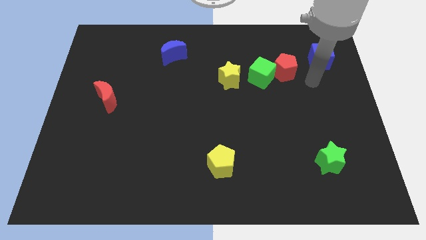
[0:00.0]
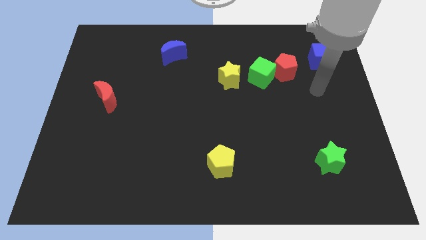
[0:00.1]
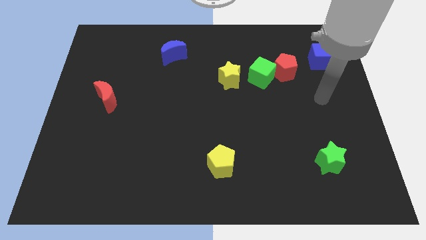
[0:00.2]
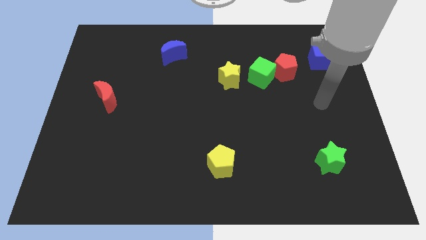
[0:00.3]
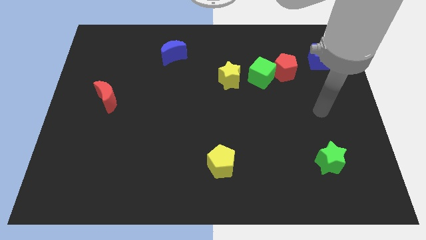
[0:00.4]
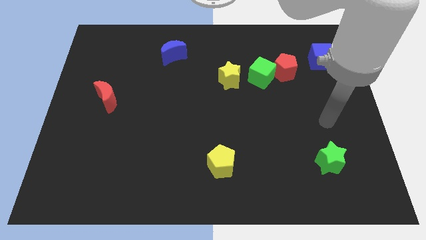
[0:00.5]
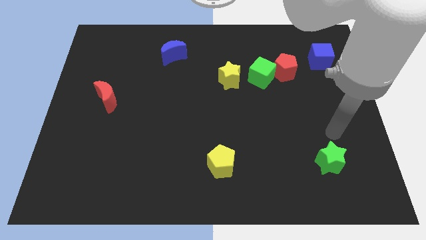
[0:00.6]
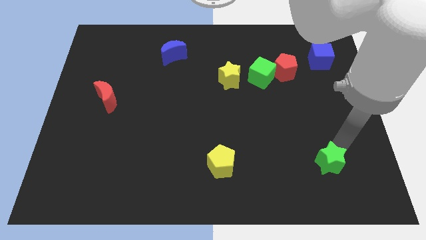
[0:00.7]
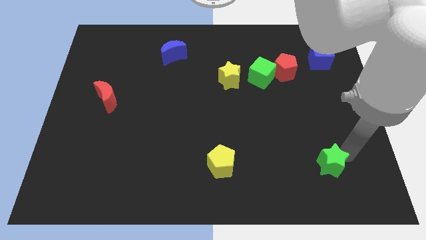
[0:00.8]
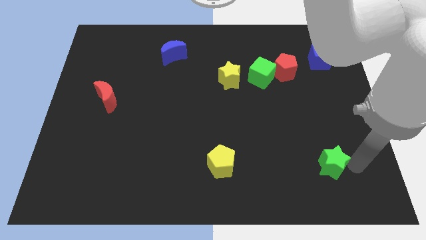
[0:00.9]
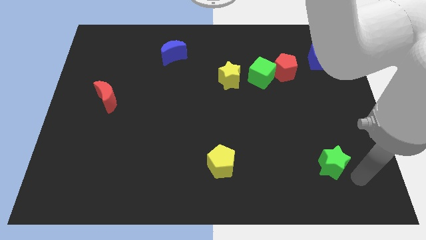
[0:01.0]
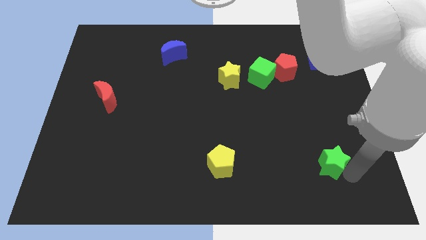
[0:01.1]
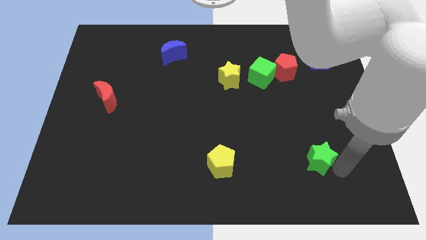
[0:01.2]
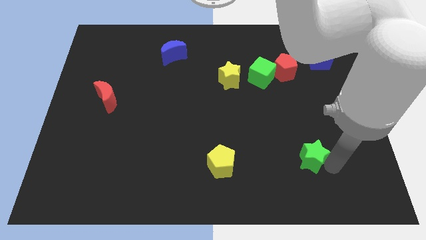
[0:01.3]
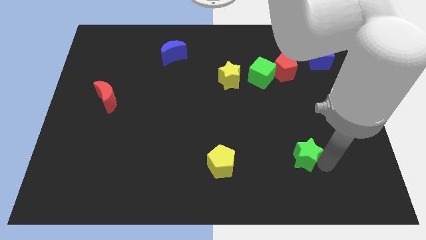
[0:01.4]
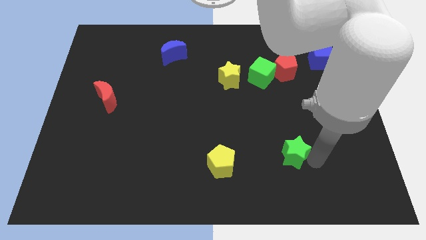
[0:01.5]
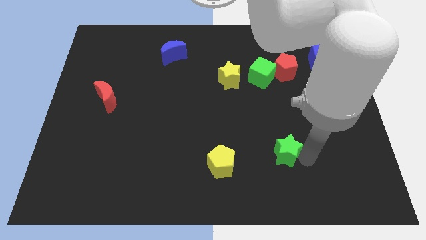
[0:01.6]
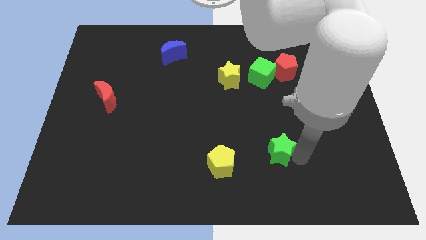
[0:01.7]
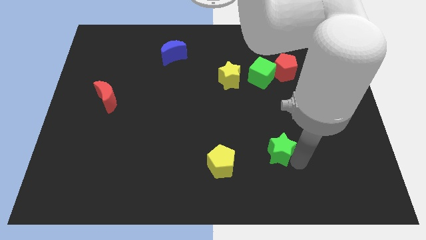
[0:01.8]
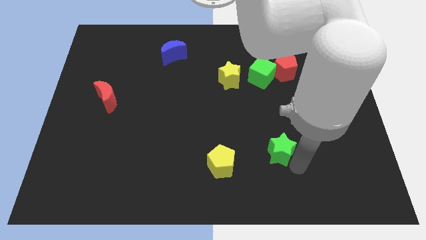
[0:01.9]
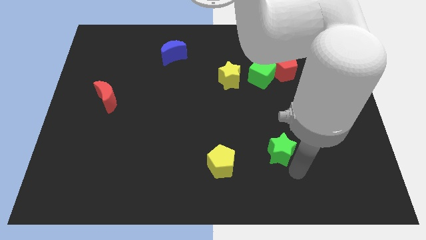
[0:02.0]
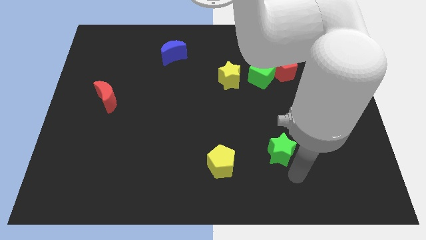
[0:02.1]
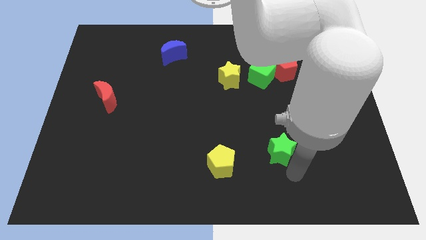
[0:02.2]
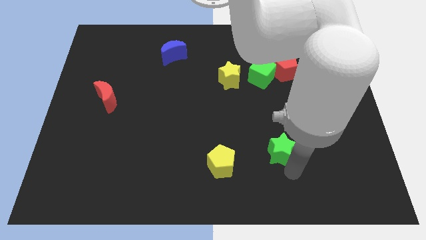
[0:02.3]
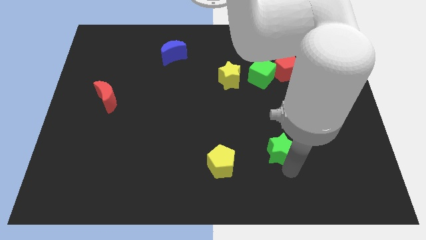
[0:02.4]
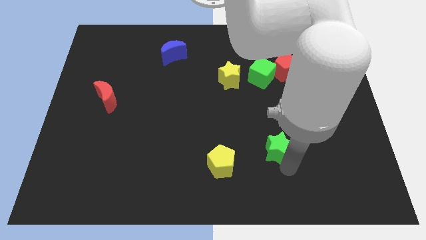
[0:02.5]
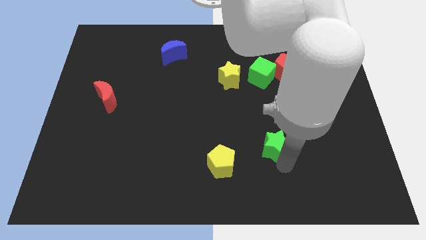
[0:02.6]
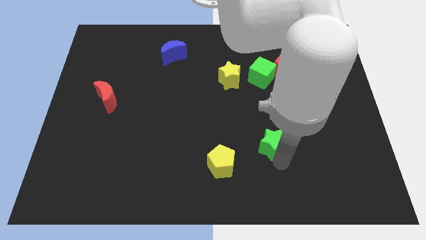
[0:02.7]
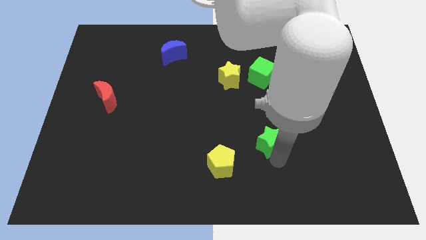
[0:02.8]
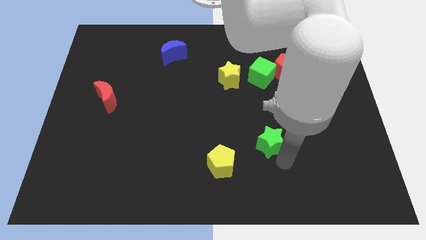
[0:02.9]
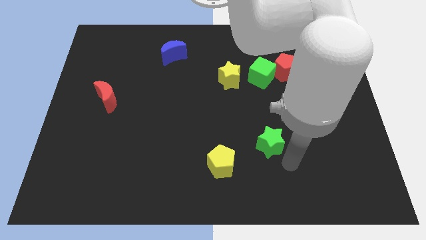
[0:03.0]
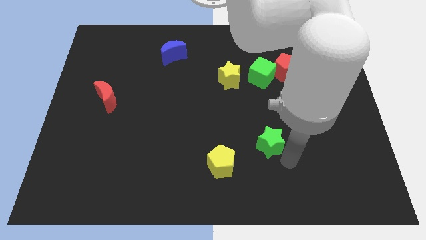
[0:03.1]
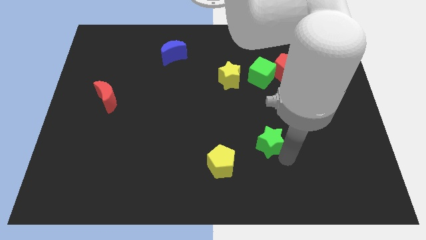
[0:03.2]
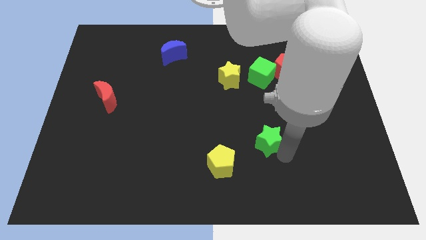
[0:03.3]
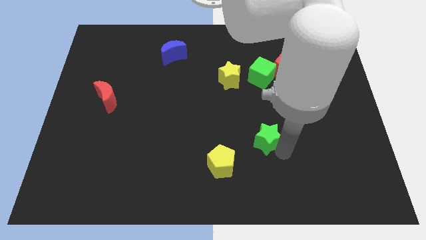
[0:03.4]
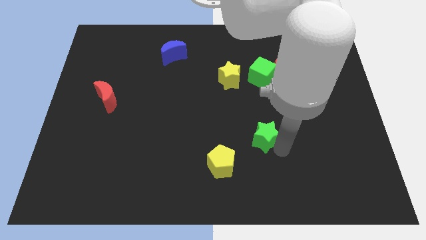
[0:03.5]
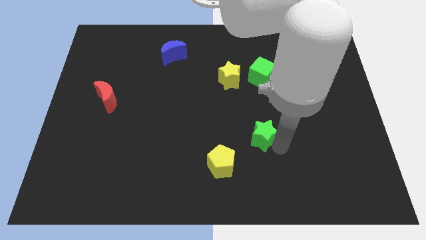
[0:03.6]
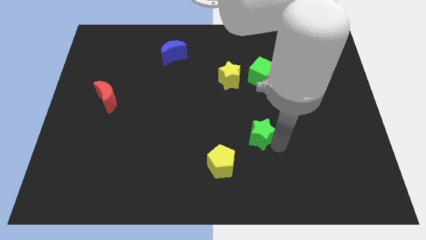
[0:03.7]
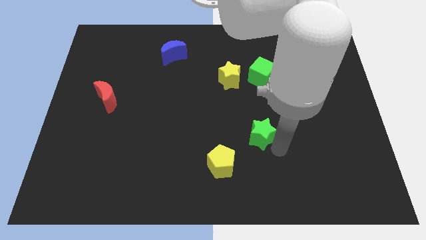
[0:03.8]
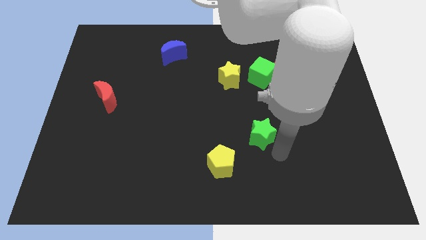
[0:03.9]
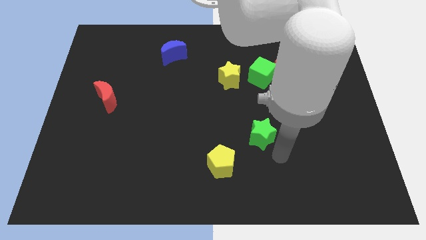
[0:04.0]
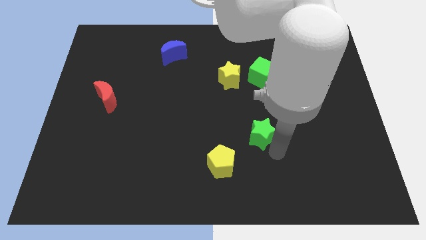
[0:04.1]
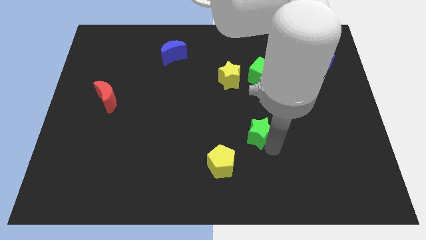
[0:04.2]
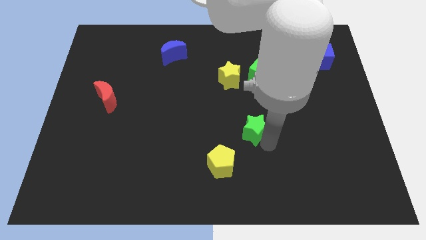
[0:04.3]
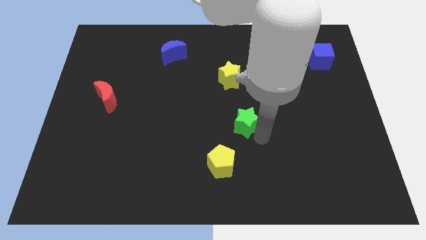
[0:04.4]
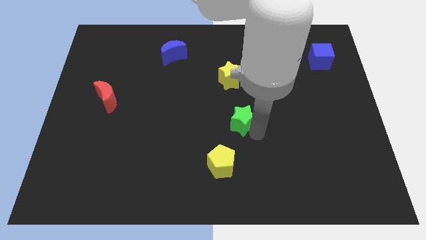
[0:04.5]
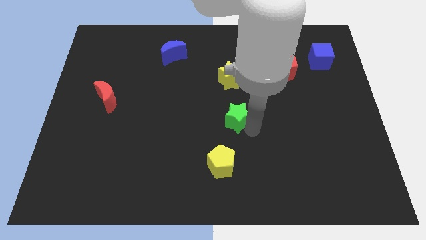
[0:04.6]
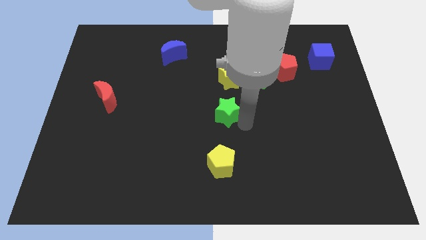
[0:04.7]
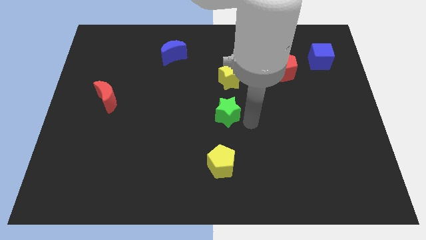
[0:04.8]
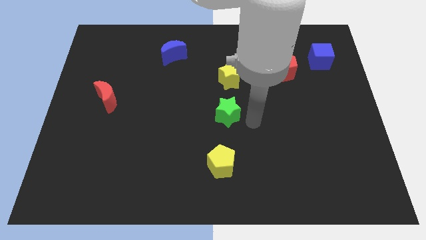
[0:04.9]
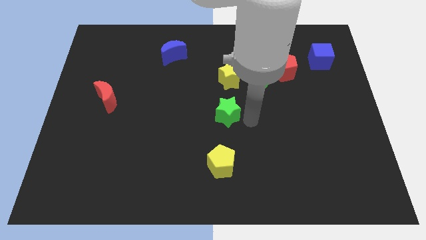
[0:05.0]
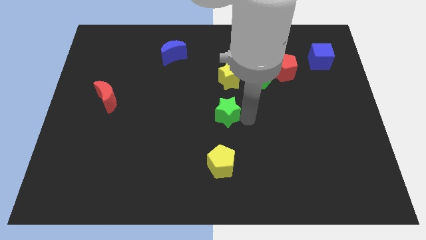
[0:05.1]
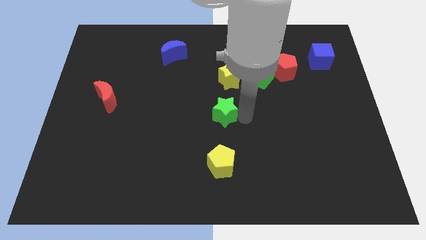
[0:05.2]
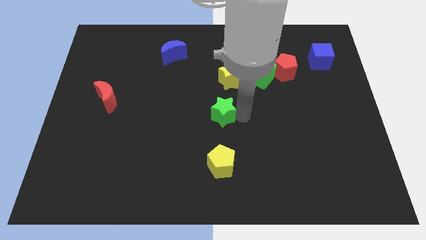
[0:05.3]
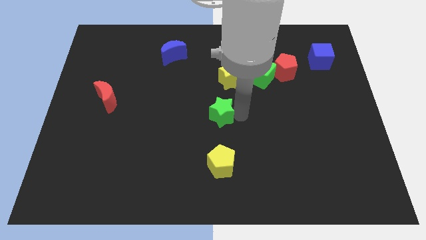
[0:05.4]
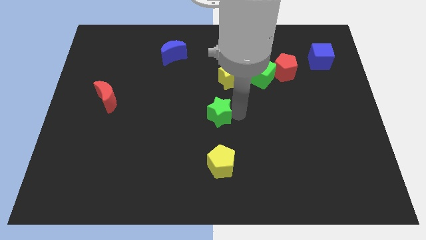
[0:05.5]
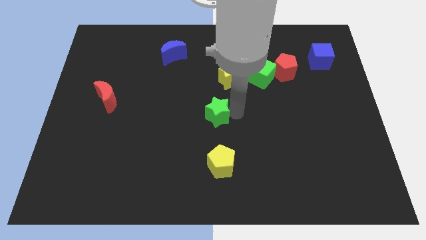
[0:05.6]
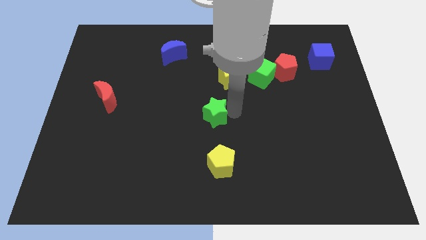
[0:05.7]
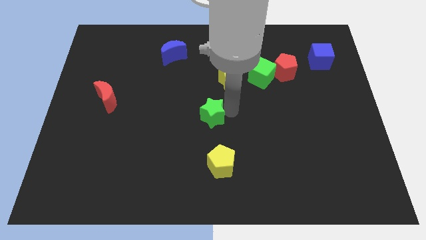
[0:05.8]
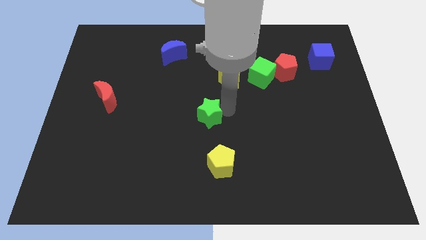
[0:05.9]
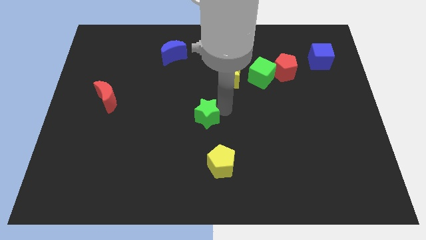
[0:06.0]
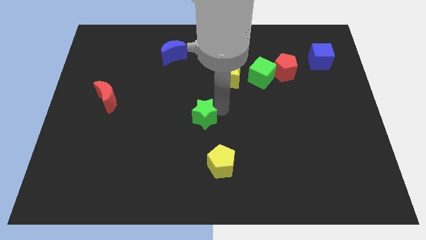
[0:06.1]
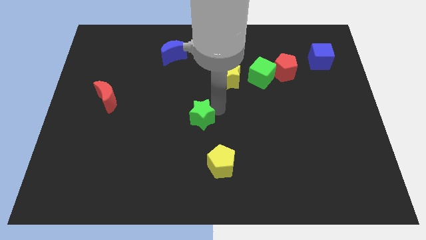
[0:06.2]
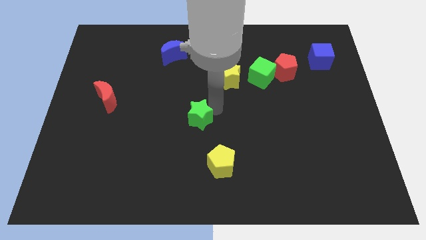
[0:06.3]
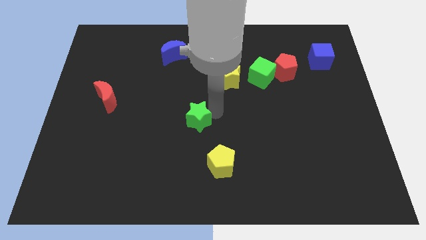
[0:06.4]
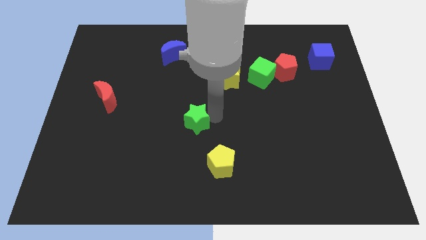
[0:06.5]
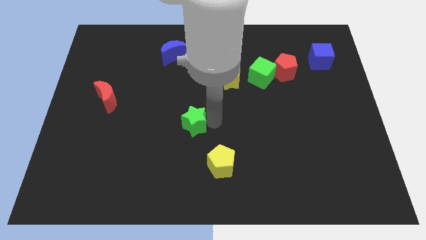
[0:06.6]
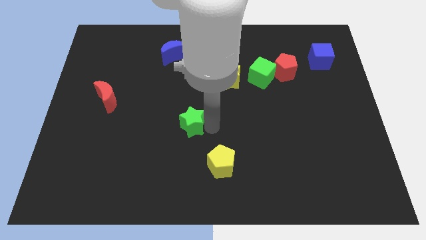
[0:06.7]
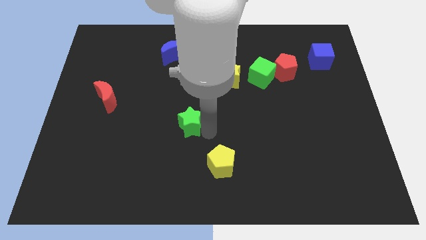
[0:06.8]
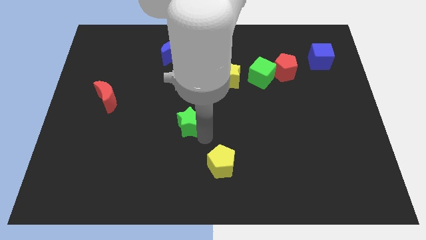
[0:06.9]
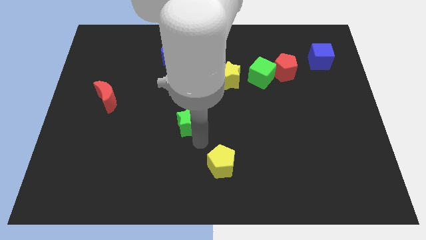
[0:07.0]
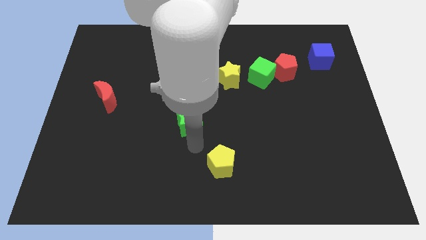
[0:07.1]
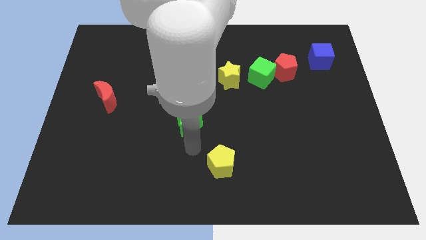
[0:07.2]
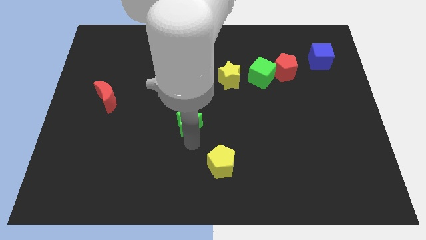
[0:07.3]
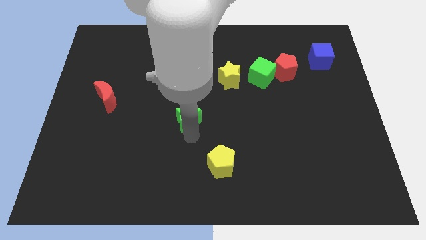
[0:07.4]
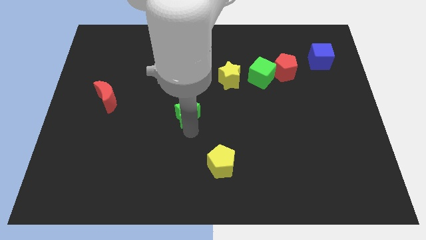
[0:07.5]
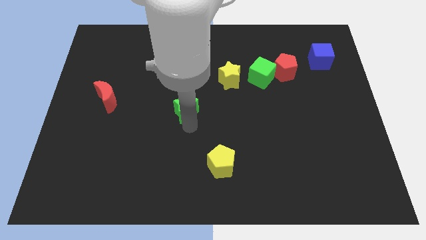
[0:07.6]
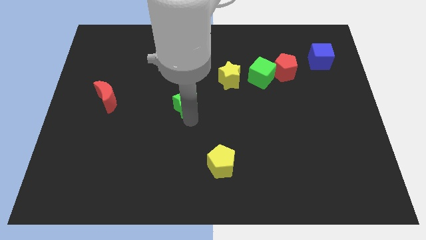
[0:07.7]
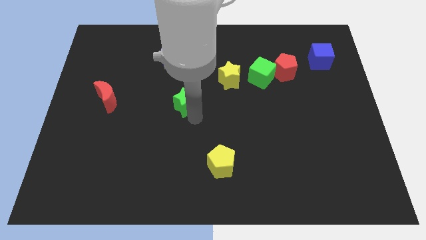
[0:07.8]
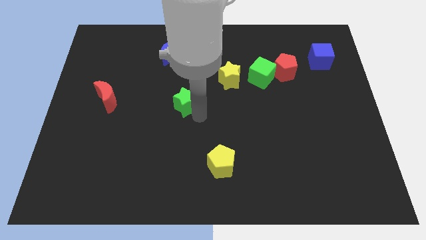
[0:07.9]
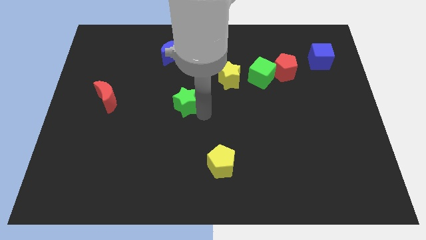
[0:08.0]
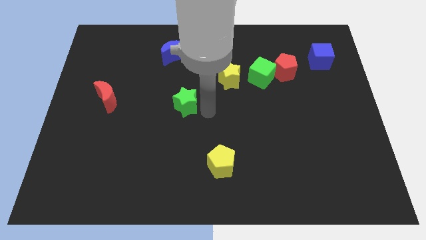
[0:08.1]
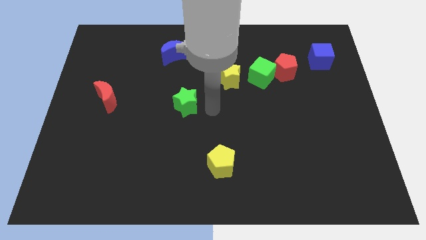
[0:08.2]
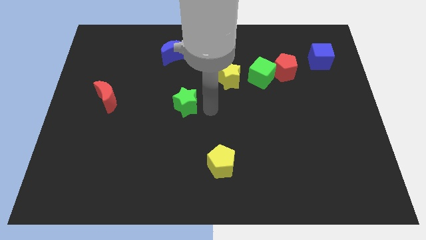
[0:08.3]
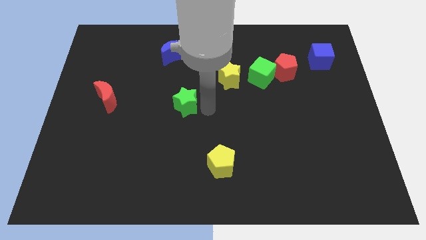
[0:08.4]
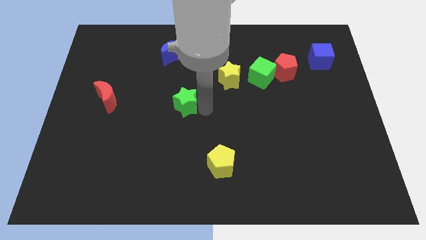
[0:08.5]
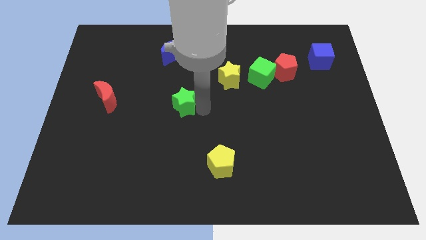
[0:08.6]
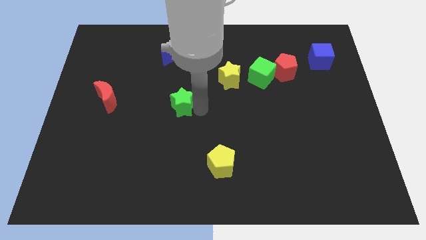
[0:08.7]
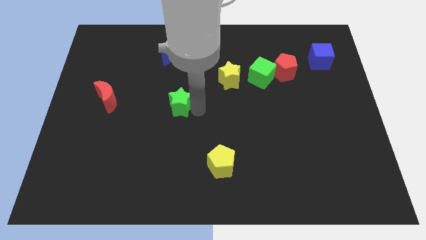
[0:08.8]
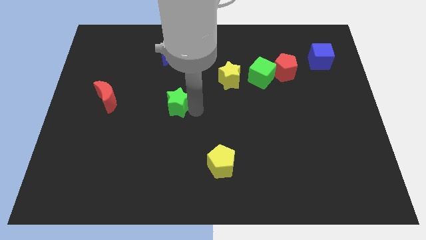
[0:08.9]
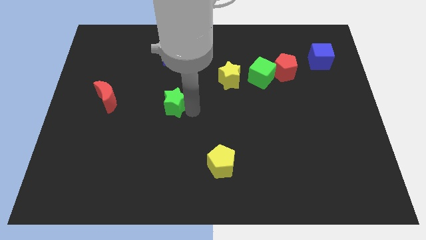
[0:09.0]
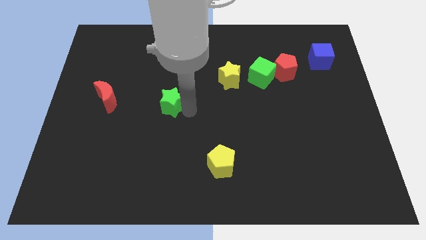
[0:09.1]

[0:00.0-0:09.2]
push the green star right of the red moon
